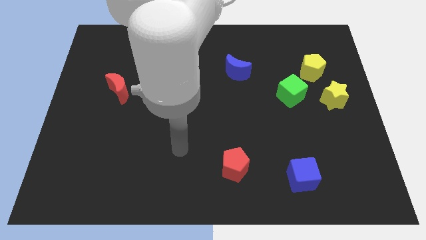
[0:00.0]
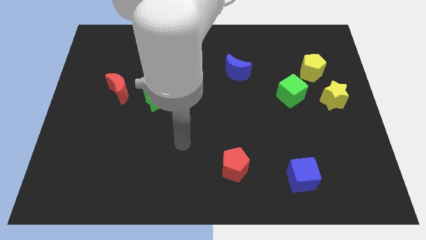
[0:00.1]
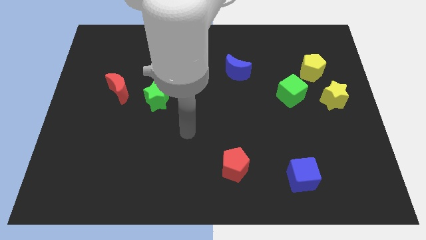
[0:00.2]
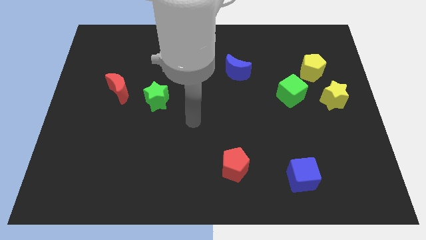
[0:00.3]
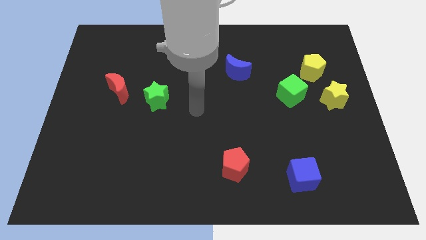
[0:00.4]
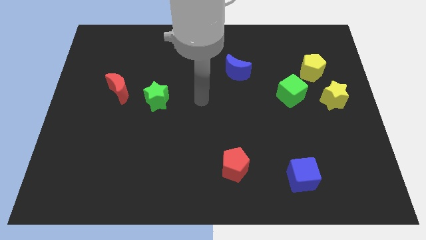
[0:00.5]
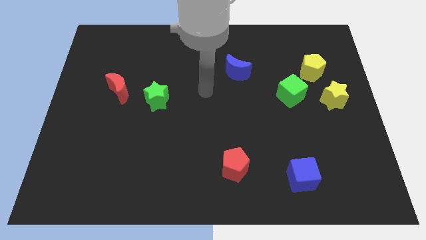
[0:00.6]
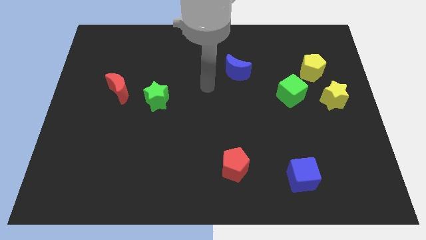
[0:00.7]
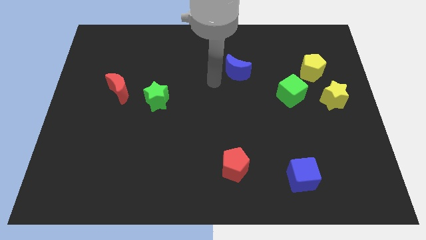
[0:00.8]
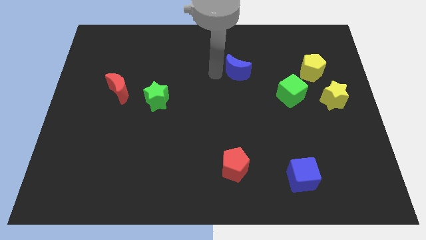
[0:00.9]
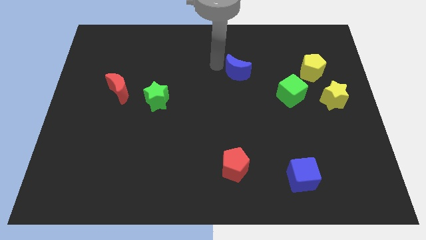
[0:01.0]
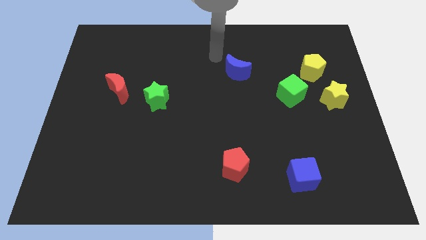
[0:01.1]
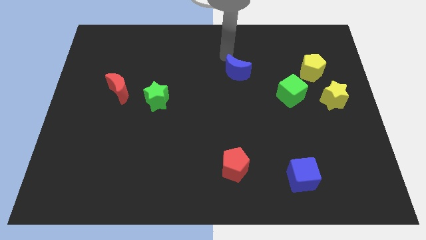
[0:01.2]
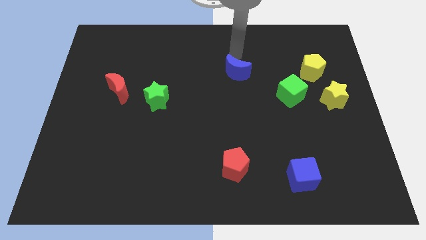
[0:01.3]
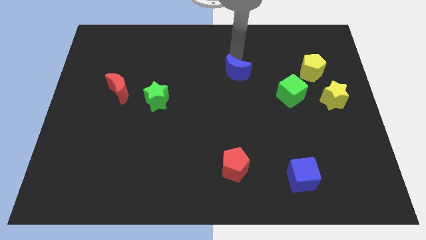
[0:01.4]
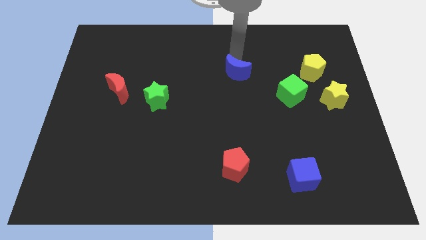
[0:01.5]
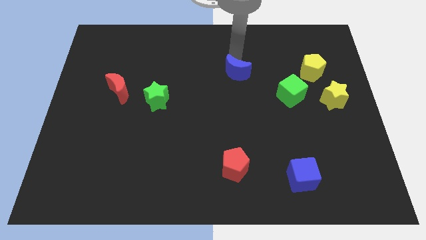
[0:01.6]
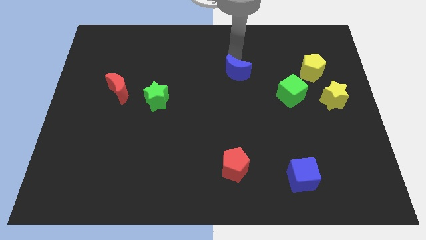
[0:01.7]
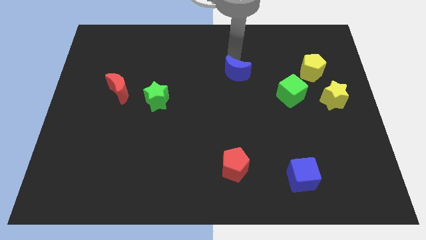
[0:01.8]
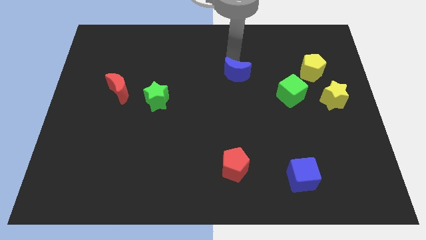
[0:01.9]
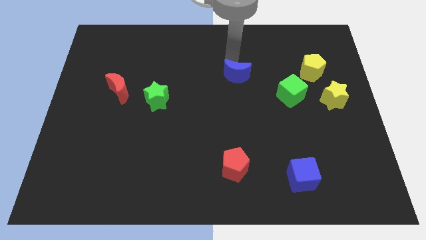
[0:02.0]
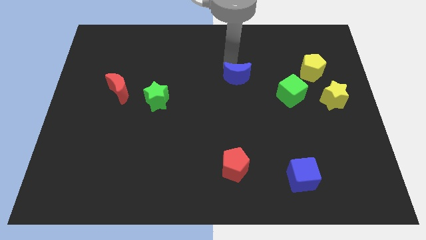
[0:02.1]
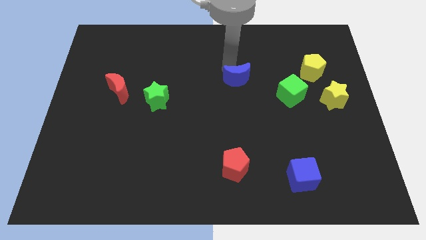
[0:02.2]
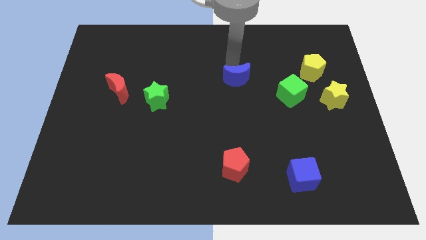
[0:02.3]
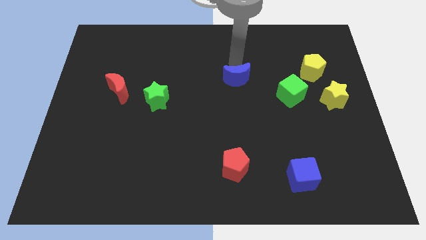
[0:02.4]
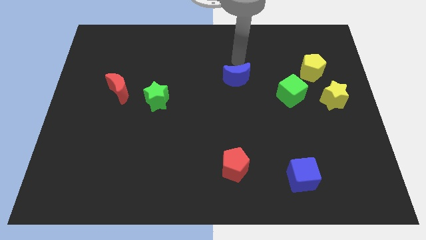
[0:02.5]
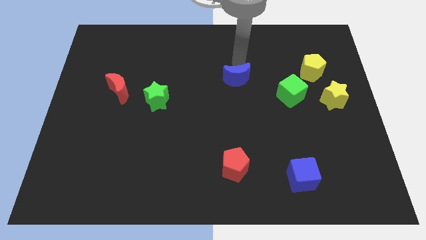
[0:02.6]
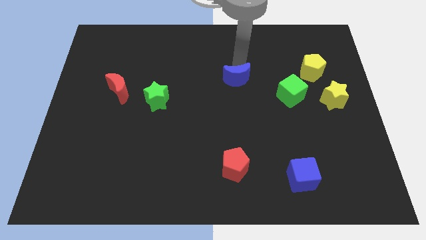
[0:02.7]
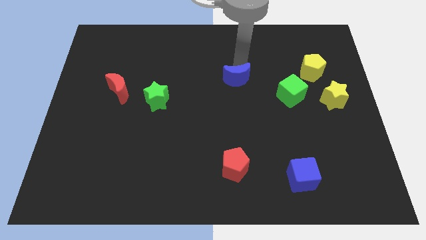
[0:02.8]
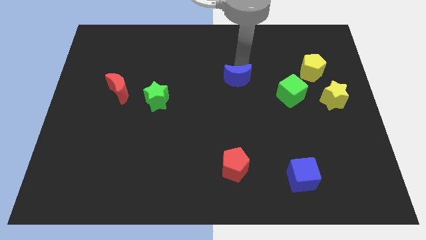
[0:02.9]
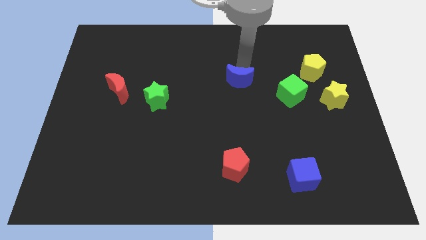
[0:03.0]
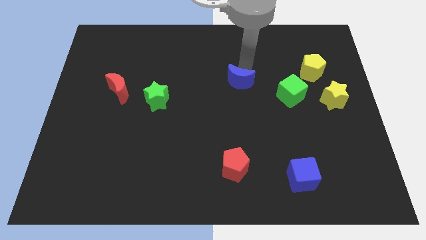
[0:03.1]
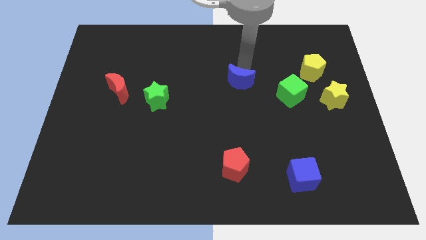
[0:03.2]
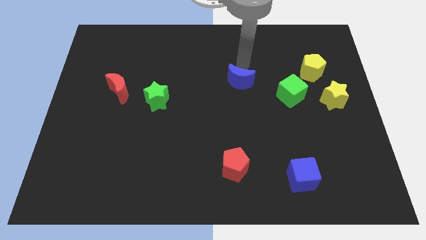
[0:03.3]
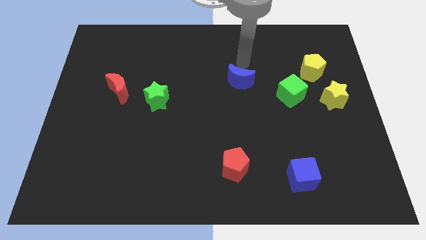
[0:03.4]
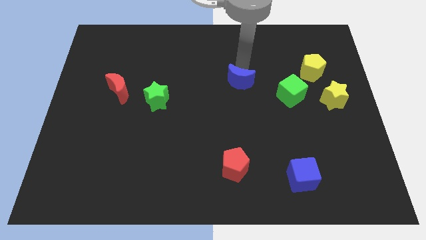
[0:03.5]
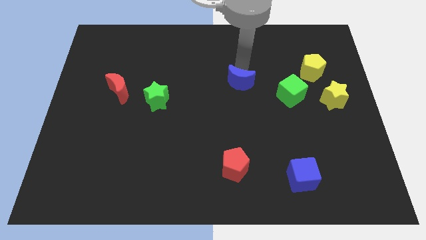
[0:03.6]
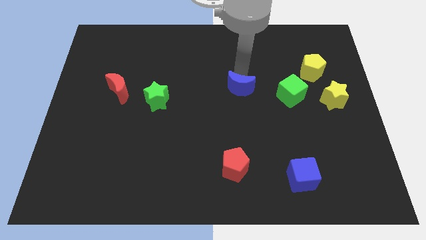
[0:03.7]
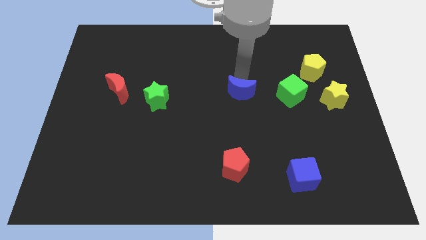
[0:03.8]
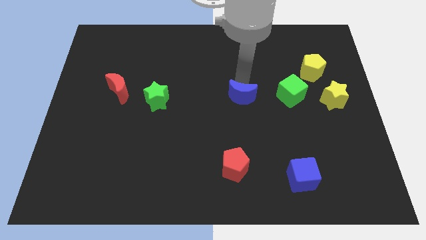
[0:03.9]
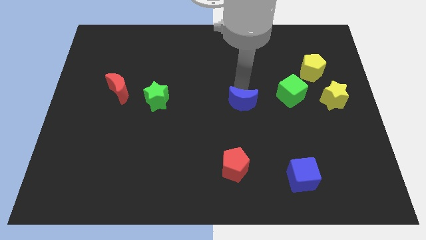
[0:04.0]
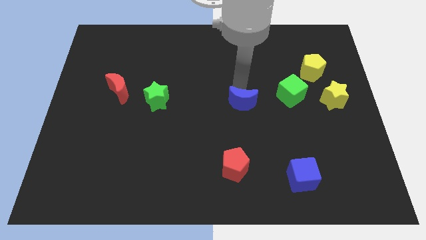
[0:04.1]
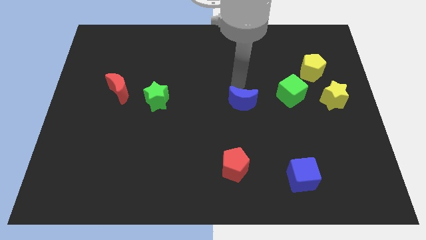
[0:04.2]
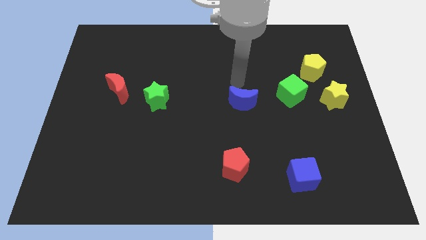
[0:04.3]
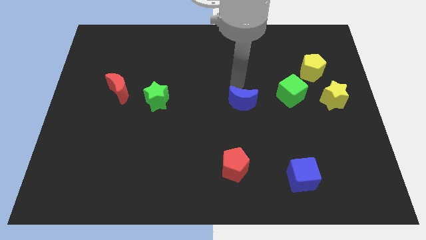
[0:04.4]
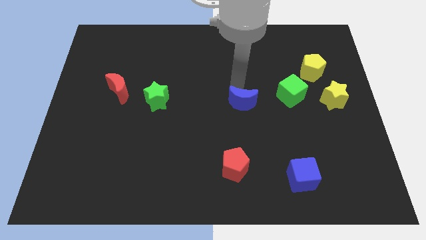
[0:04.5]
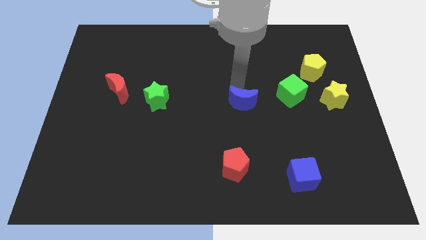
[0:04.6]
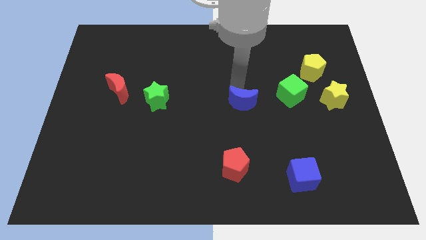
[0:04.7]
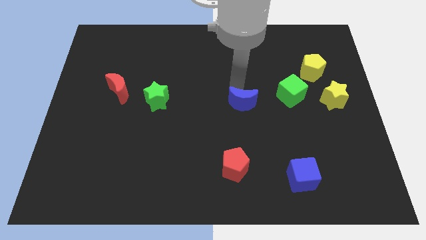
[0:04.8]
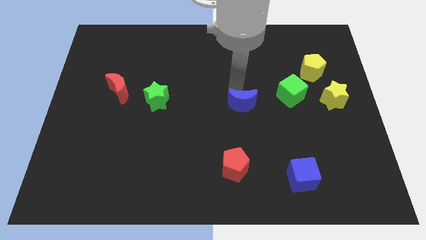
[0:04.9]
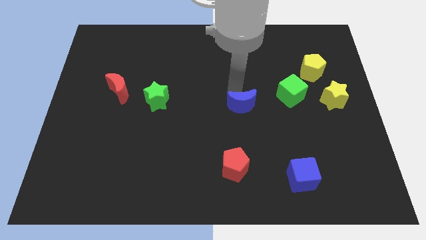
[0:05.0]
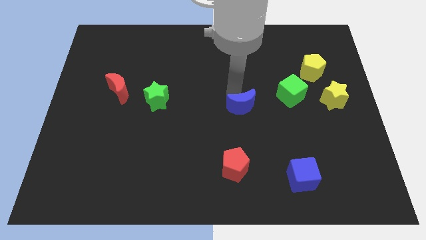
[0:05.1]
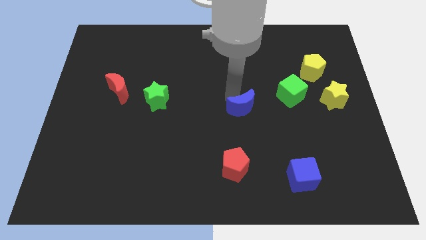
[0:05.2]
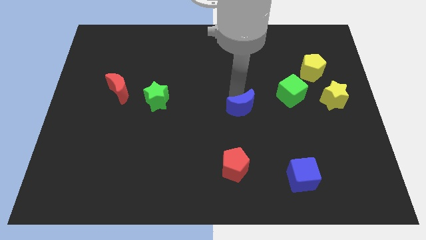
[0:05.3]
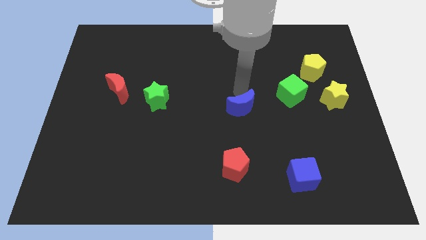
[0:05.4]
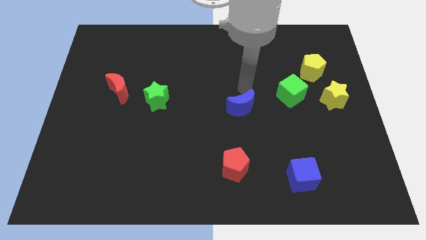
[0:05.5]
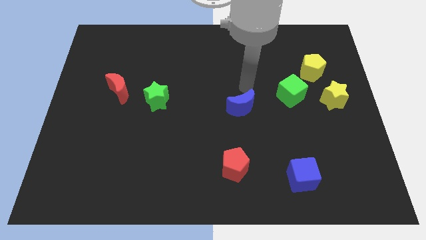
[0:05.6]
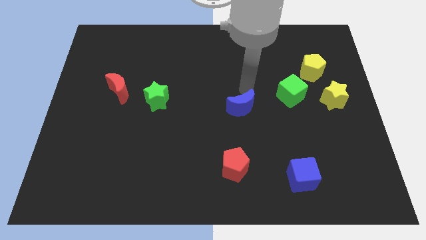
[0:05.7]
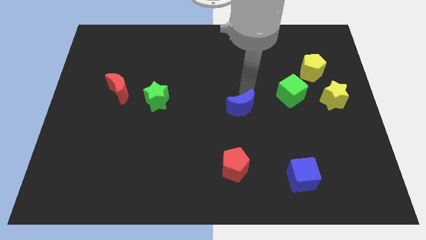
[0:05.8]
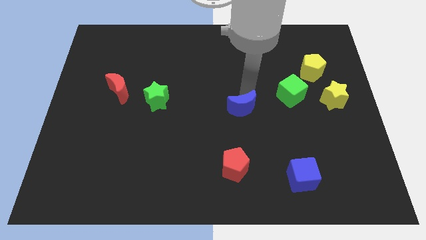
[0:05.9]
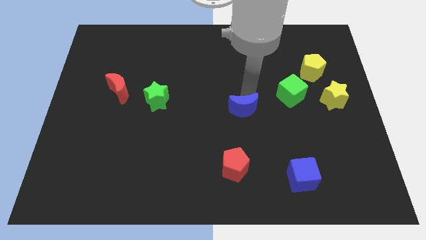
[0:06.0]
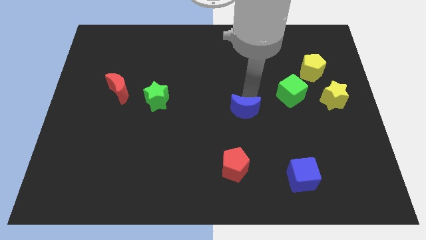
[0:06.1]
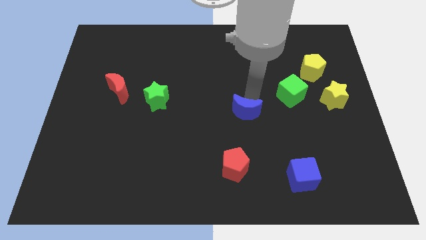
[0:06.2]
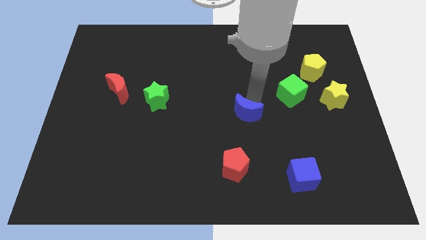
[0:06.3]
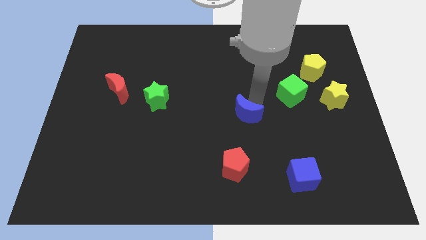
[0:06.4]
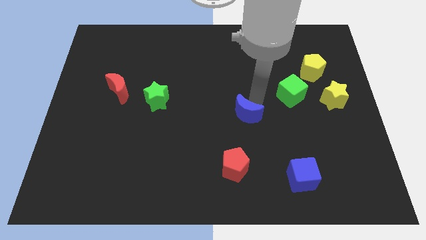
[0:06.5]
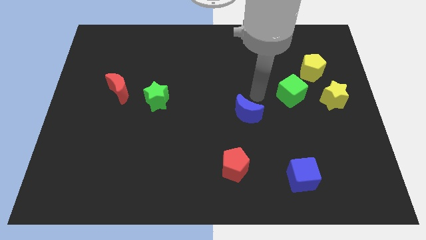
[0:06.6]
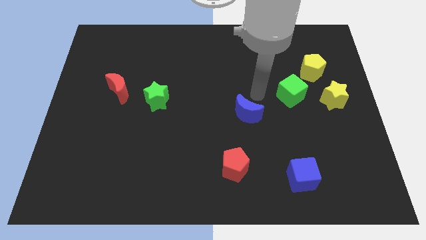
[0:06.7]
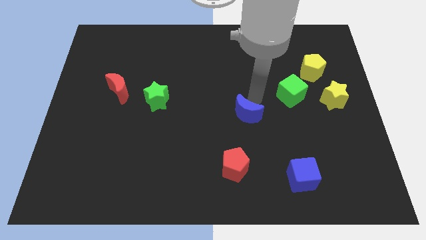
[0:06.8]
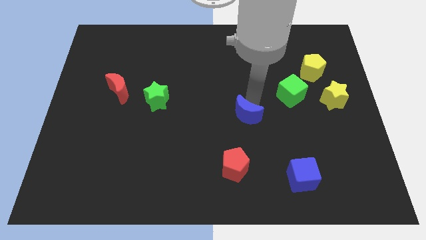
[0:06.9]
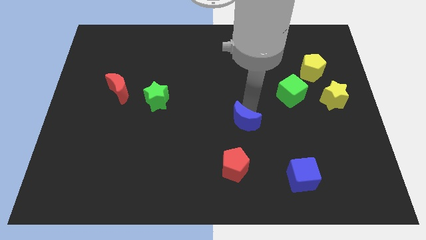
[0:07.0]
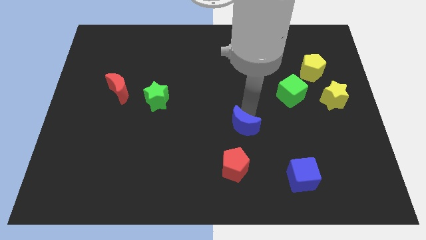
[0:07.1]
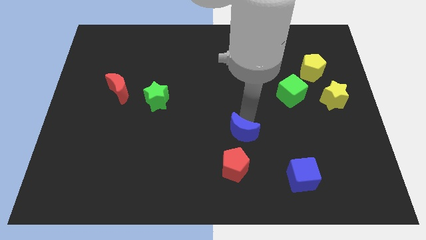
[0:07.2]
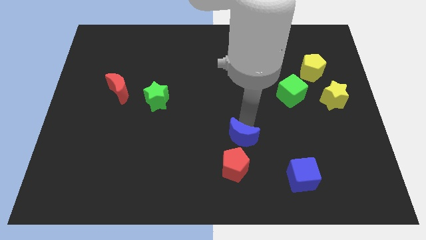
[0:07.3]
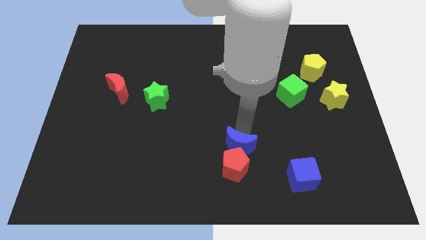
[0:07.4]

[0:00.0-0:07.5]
slide the blue moon close to the red pentagon

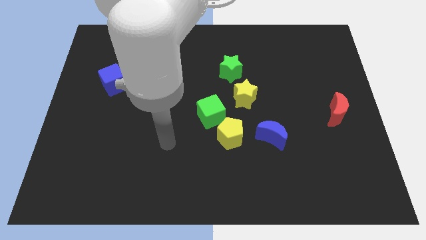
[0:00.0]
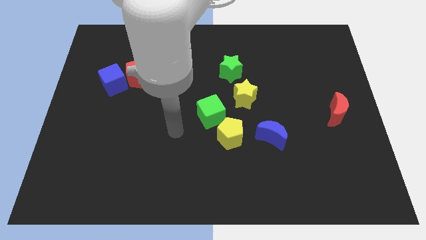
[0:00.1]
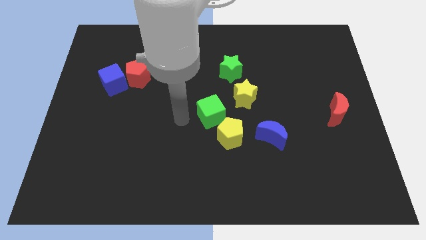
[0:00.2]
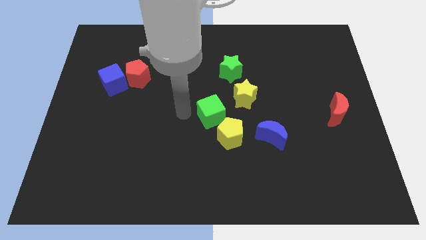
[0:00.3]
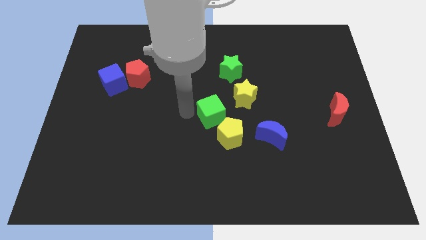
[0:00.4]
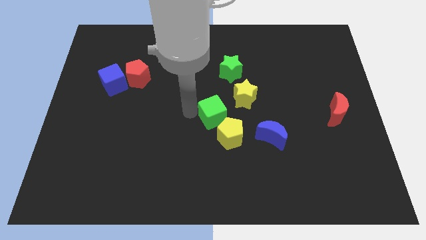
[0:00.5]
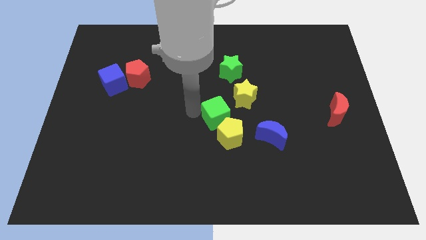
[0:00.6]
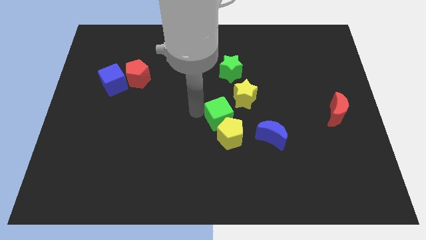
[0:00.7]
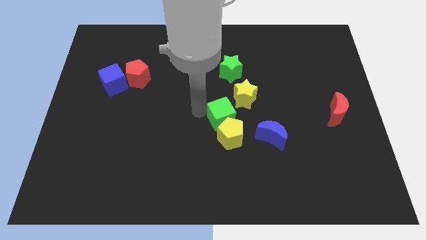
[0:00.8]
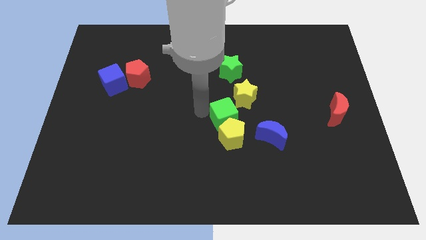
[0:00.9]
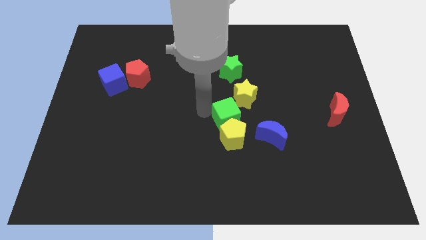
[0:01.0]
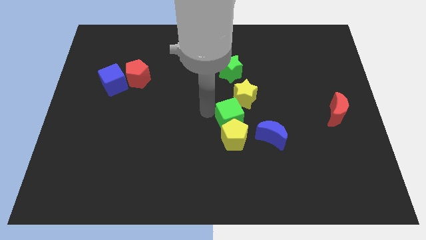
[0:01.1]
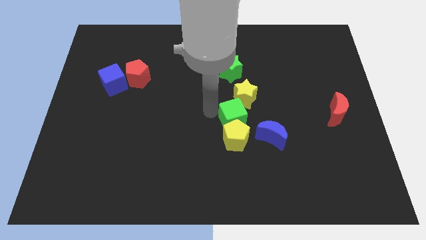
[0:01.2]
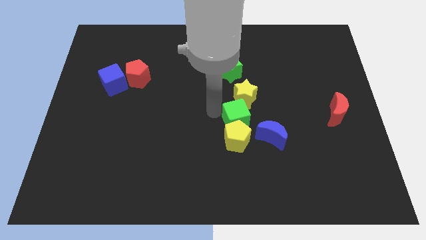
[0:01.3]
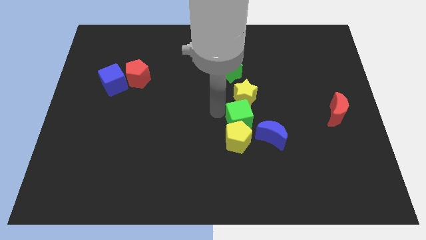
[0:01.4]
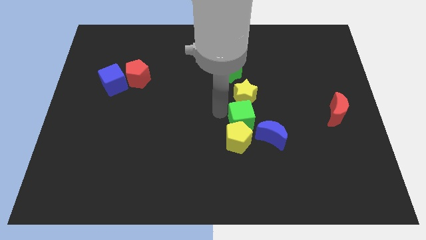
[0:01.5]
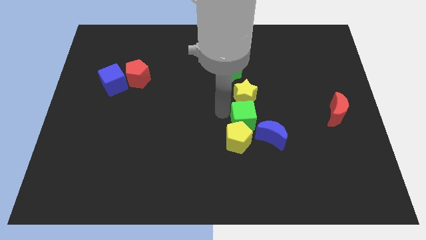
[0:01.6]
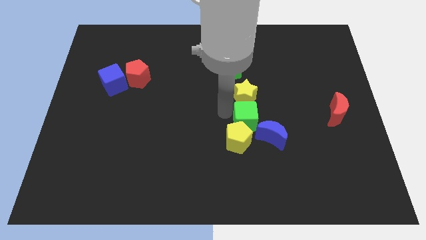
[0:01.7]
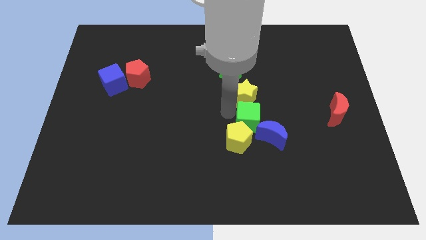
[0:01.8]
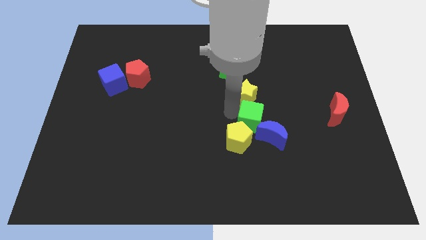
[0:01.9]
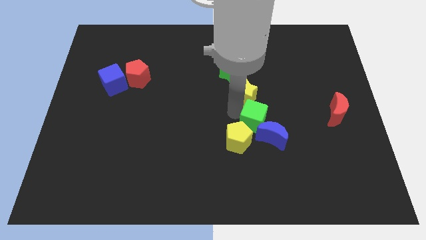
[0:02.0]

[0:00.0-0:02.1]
put the green cube close to the blue moon
